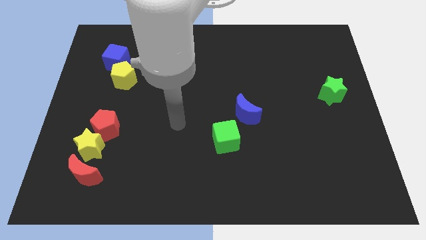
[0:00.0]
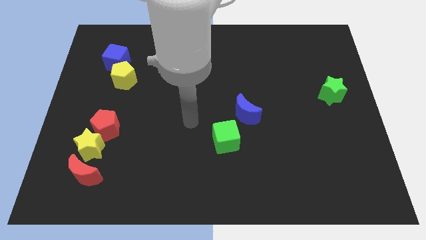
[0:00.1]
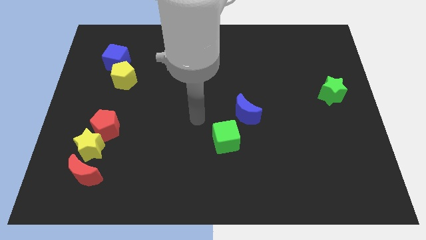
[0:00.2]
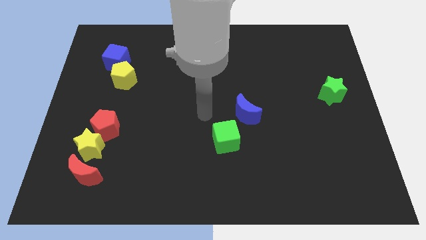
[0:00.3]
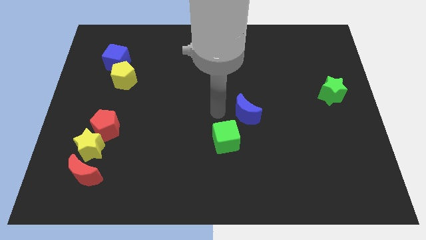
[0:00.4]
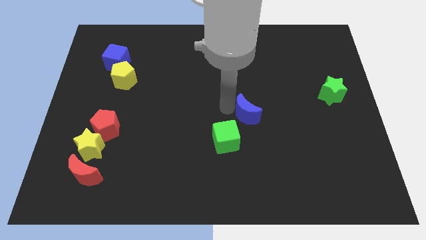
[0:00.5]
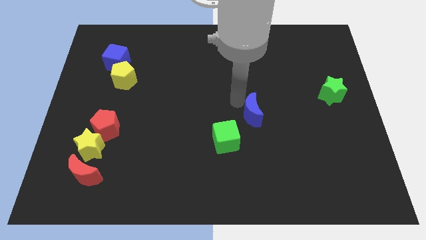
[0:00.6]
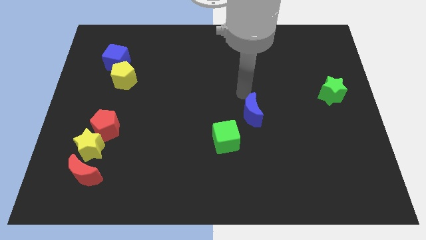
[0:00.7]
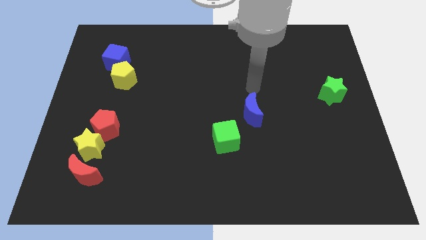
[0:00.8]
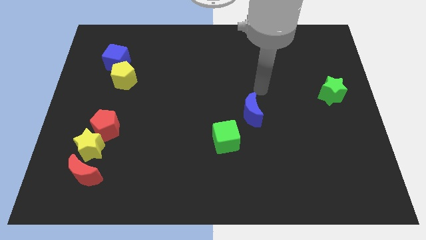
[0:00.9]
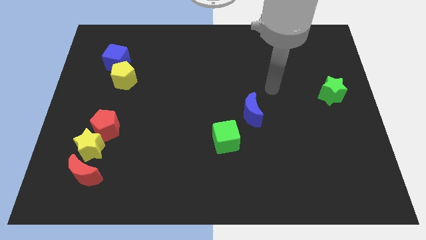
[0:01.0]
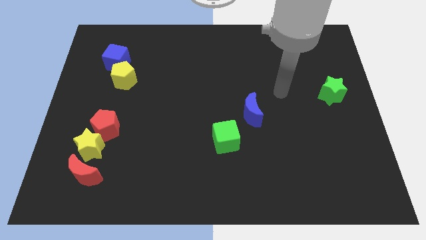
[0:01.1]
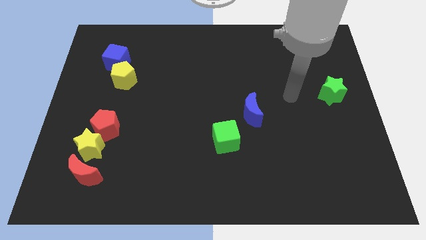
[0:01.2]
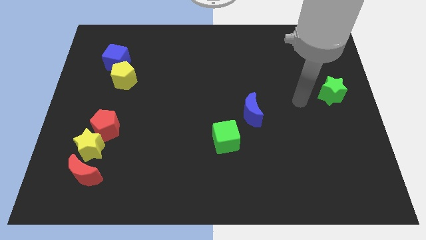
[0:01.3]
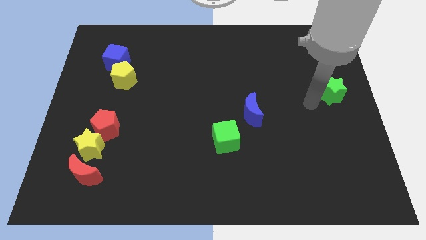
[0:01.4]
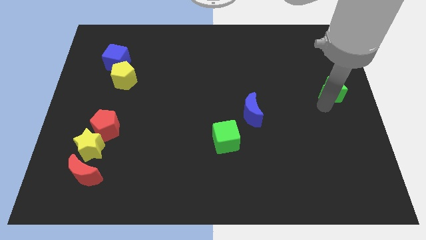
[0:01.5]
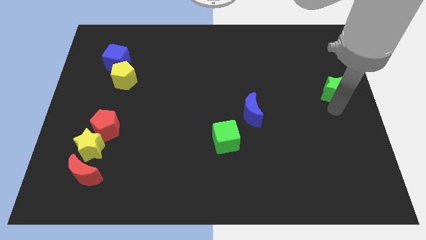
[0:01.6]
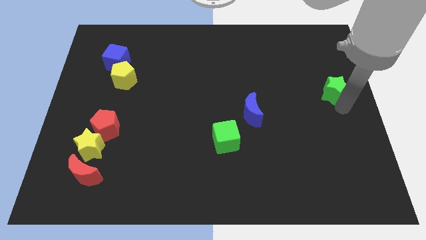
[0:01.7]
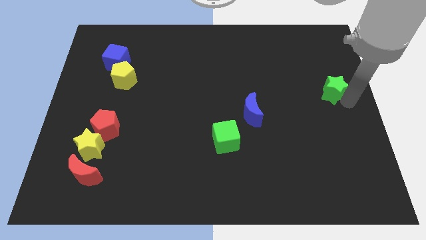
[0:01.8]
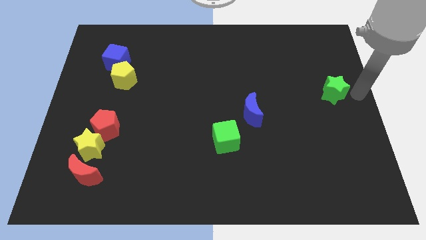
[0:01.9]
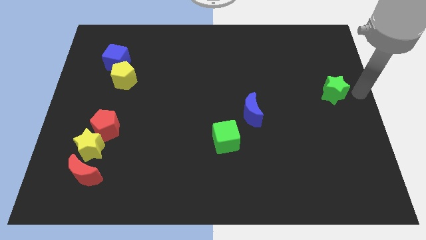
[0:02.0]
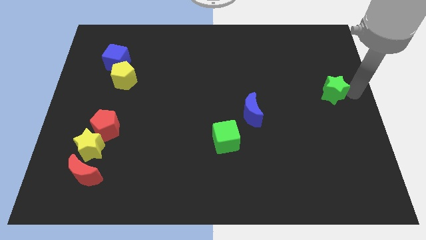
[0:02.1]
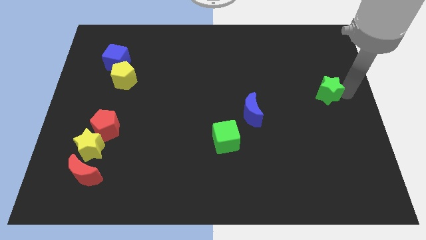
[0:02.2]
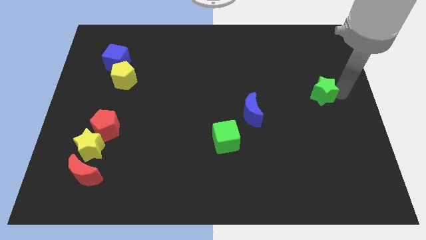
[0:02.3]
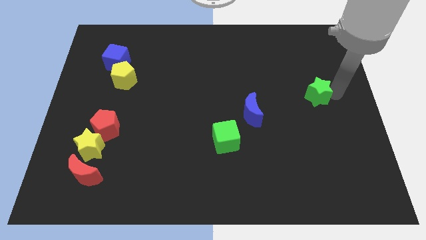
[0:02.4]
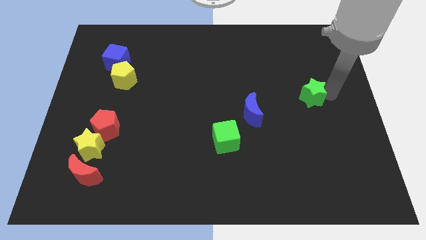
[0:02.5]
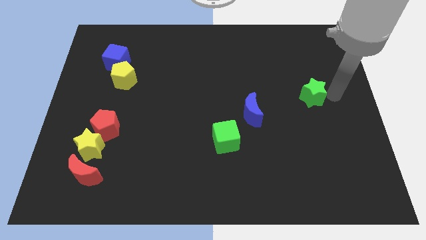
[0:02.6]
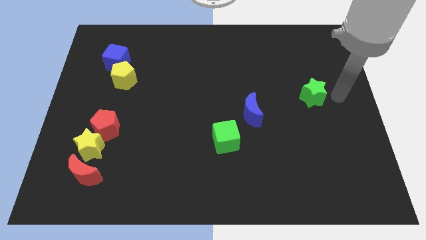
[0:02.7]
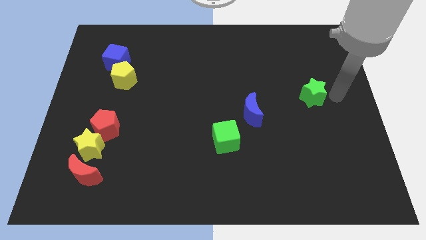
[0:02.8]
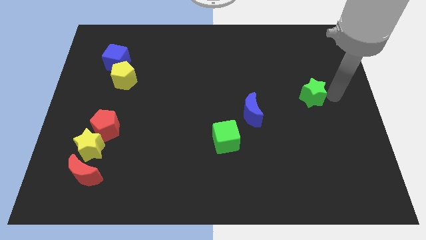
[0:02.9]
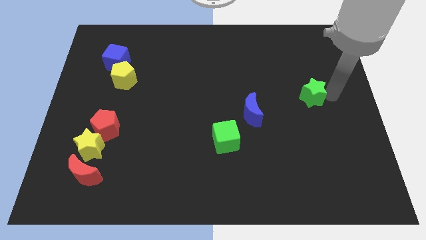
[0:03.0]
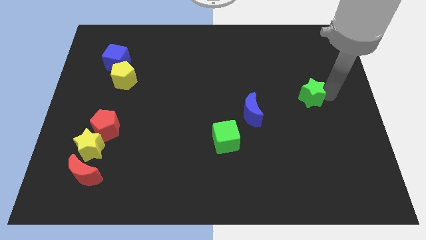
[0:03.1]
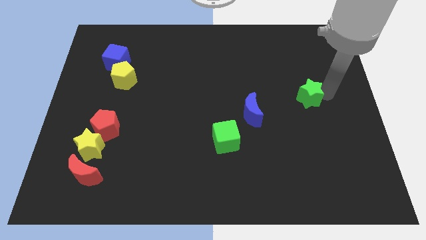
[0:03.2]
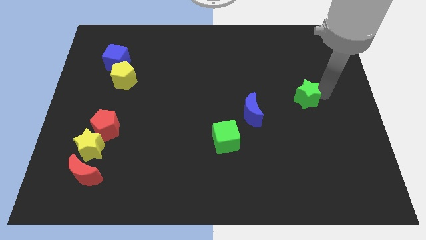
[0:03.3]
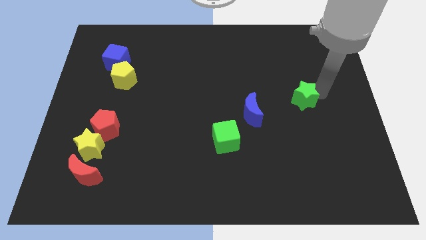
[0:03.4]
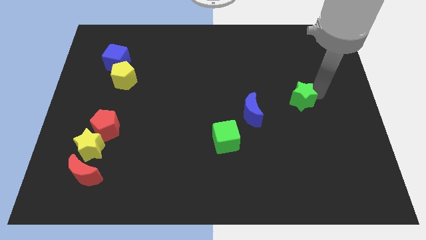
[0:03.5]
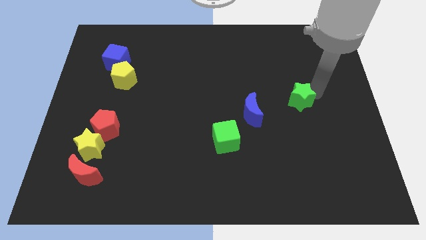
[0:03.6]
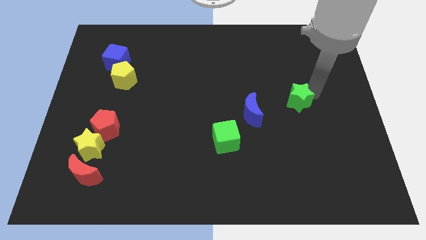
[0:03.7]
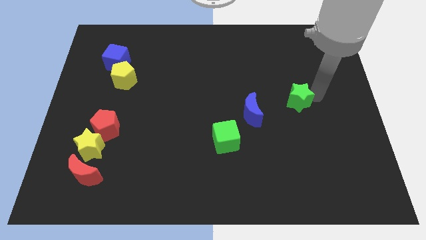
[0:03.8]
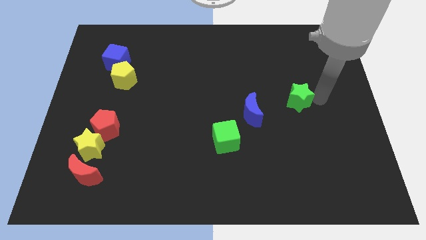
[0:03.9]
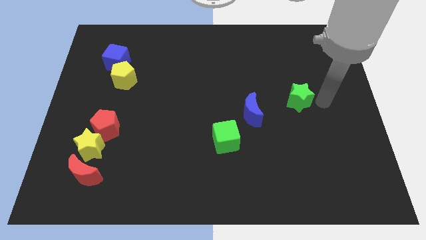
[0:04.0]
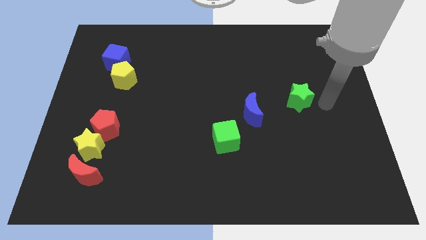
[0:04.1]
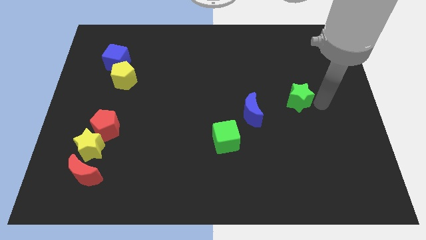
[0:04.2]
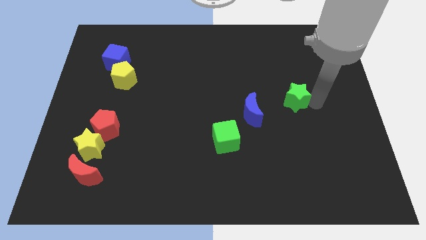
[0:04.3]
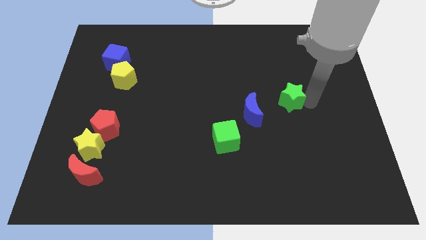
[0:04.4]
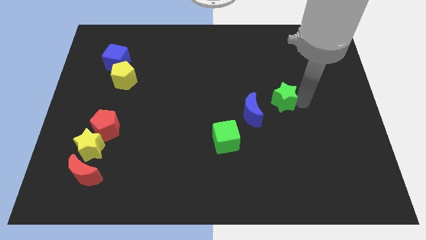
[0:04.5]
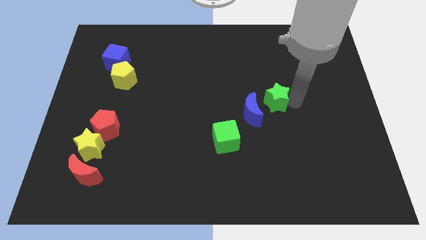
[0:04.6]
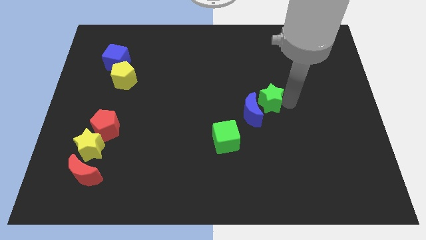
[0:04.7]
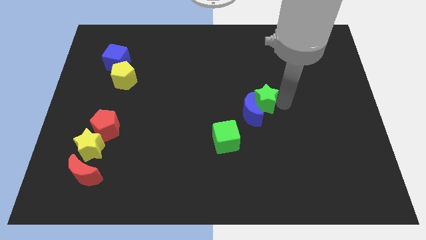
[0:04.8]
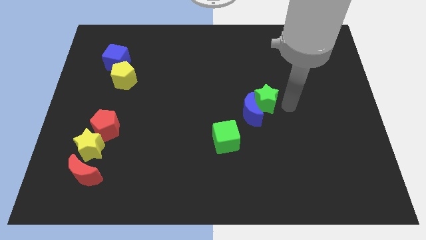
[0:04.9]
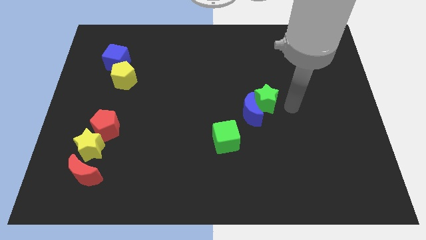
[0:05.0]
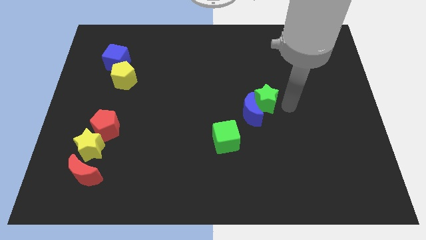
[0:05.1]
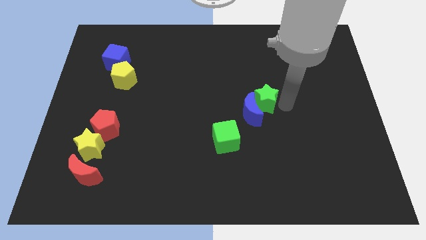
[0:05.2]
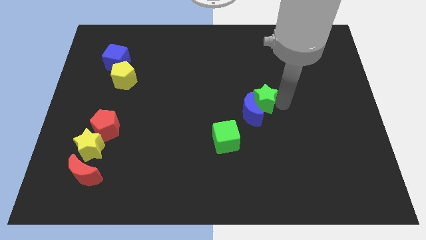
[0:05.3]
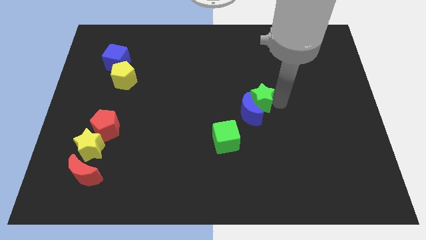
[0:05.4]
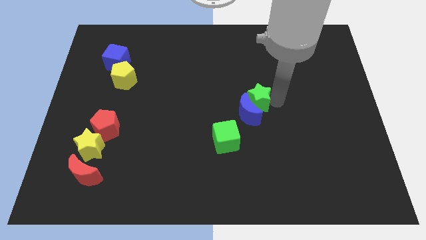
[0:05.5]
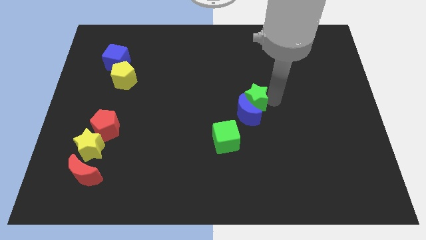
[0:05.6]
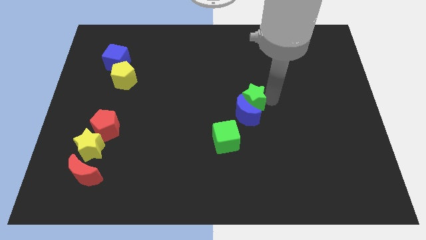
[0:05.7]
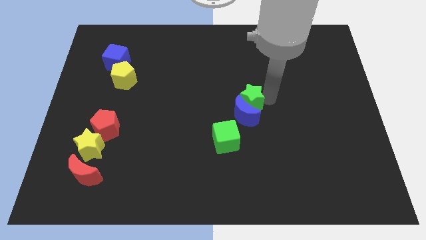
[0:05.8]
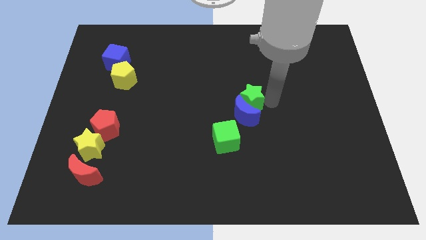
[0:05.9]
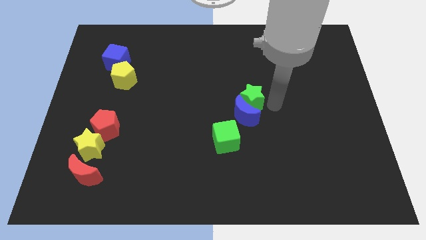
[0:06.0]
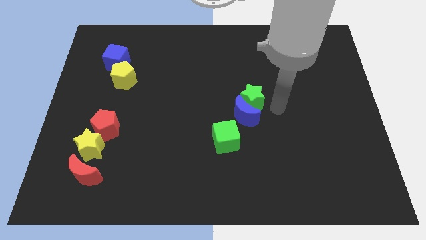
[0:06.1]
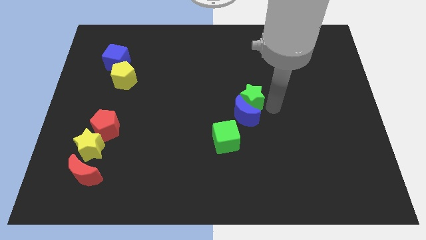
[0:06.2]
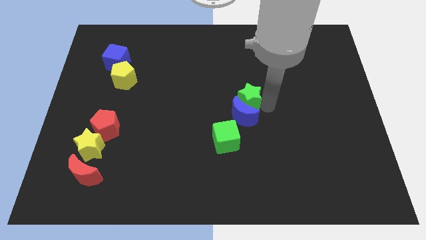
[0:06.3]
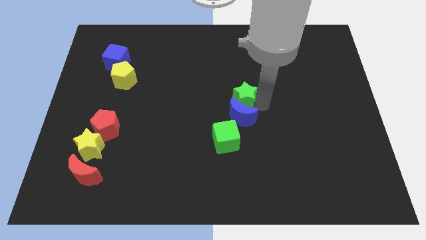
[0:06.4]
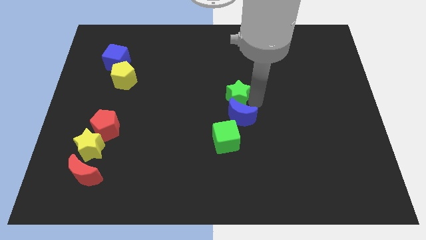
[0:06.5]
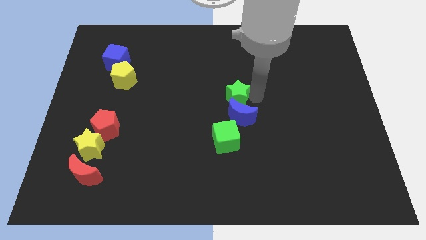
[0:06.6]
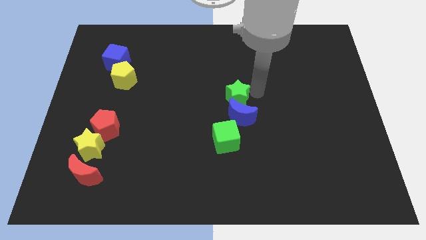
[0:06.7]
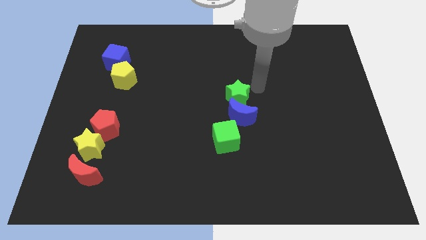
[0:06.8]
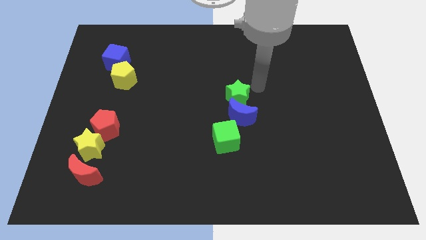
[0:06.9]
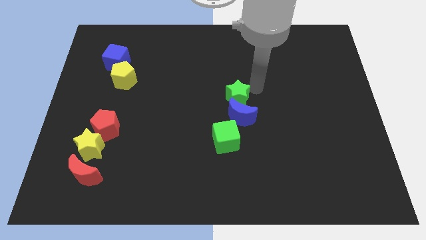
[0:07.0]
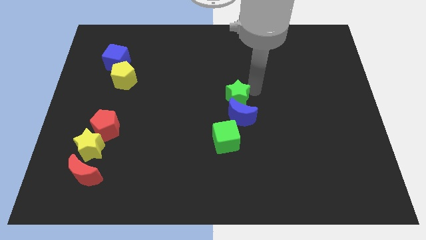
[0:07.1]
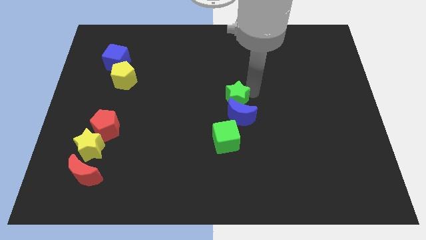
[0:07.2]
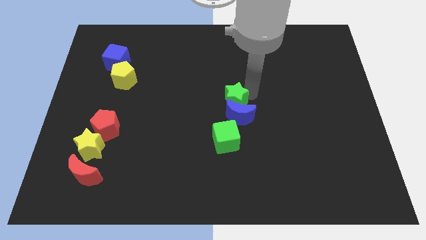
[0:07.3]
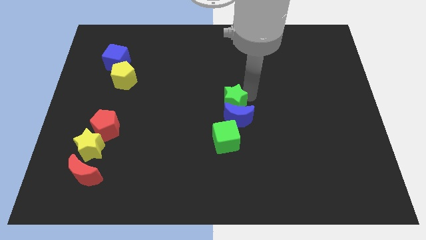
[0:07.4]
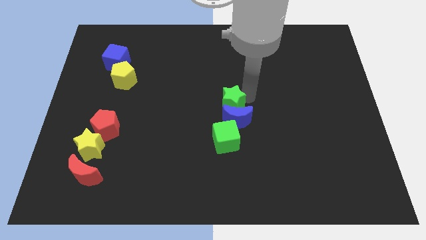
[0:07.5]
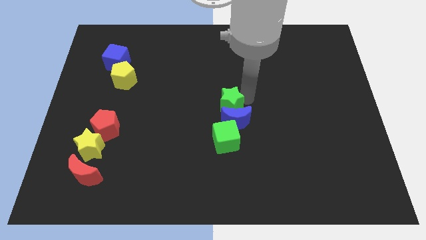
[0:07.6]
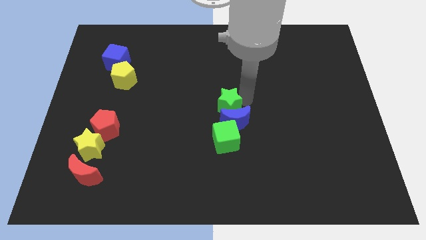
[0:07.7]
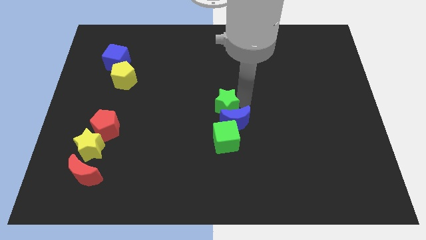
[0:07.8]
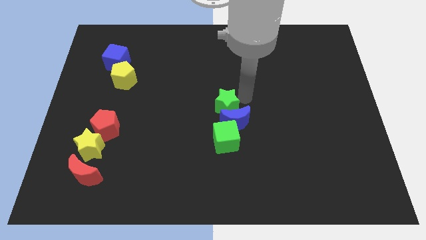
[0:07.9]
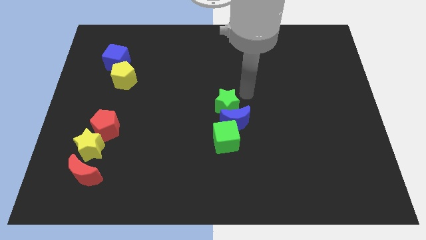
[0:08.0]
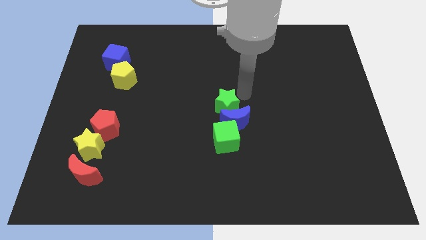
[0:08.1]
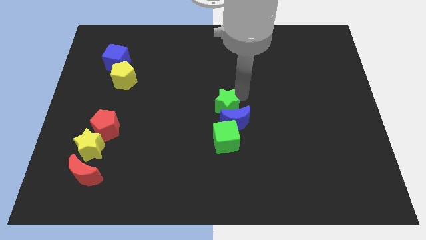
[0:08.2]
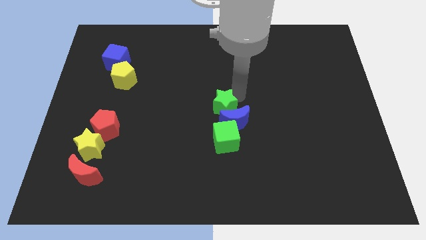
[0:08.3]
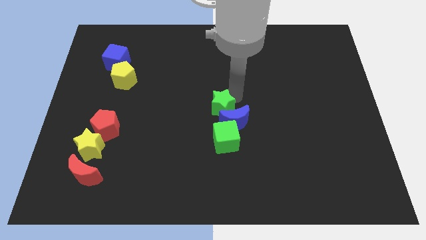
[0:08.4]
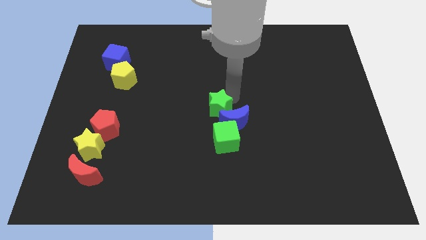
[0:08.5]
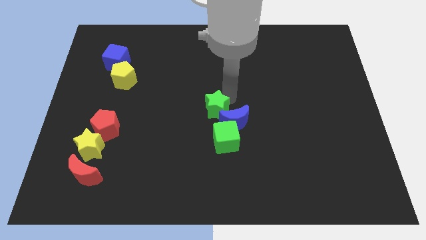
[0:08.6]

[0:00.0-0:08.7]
push the green star to the top left of the green cube
